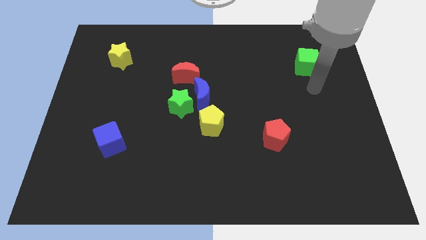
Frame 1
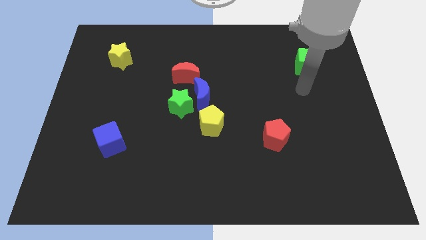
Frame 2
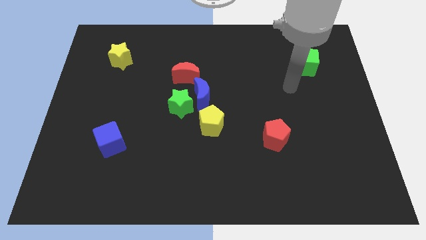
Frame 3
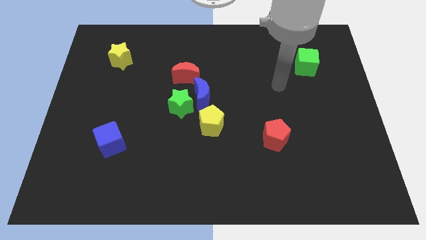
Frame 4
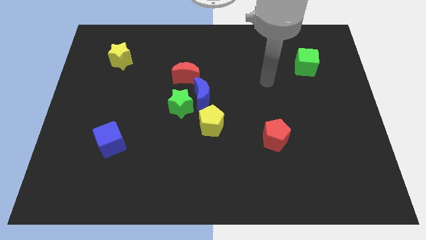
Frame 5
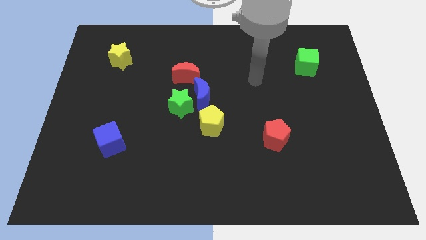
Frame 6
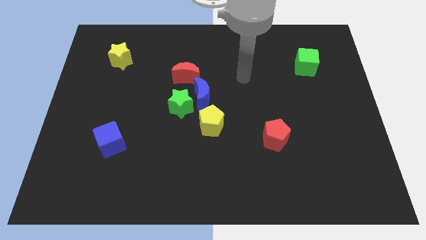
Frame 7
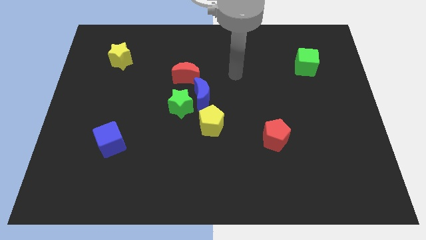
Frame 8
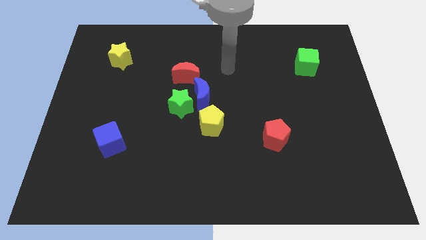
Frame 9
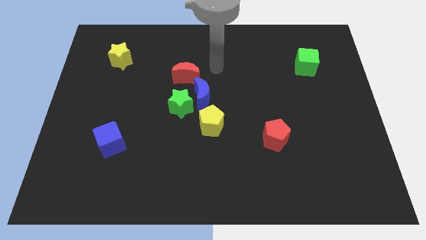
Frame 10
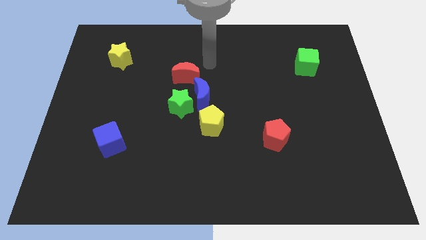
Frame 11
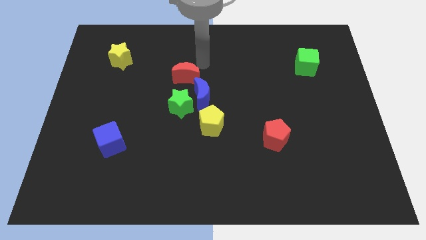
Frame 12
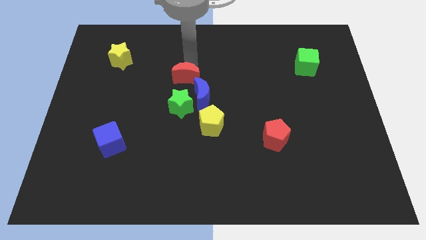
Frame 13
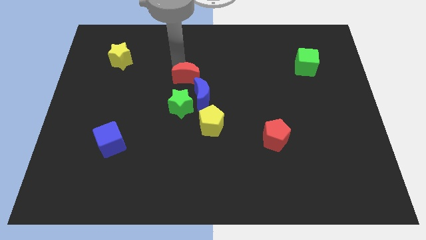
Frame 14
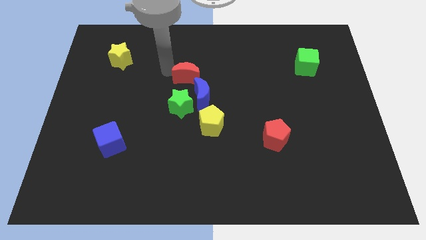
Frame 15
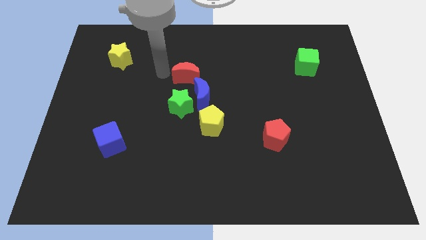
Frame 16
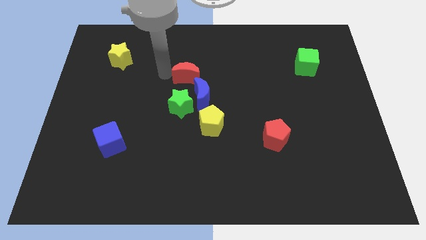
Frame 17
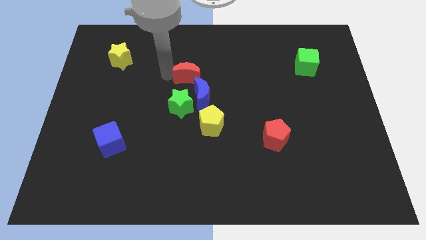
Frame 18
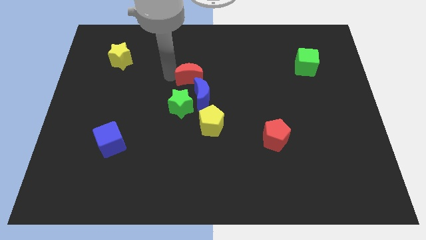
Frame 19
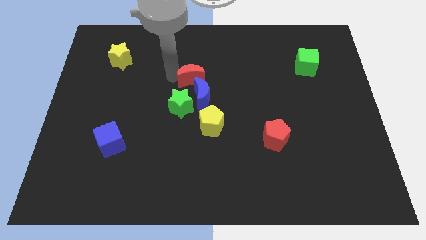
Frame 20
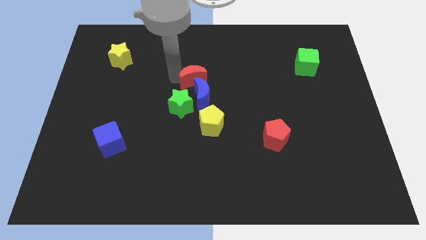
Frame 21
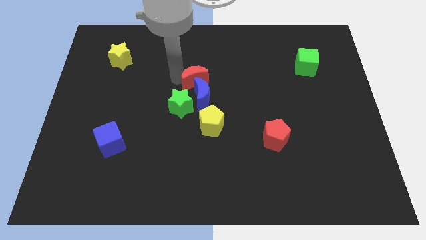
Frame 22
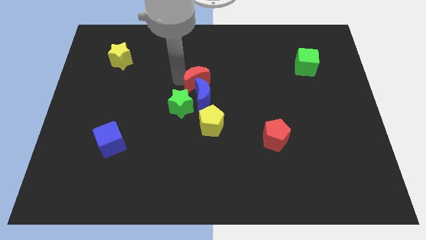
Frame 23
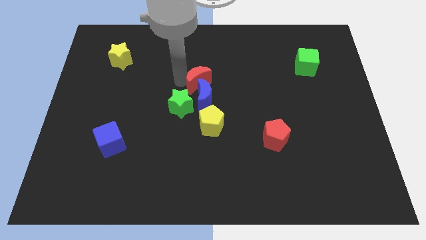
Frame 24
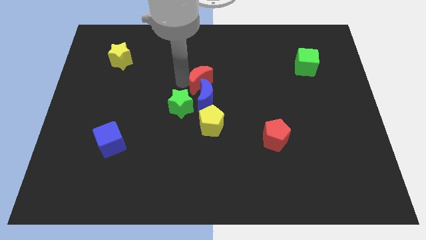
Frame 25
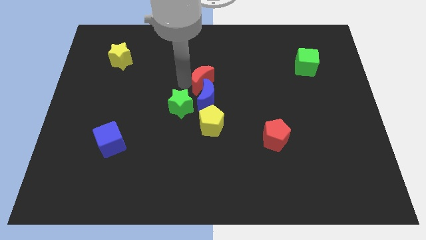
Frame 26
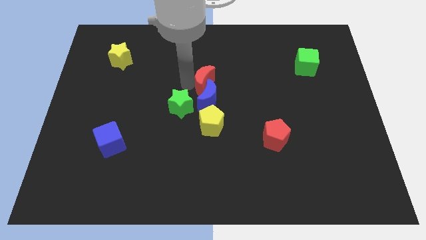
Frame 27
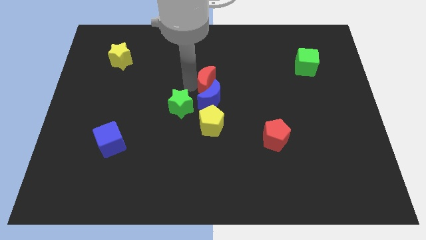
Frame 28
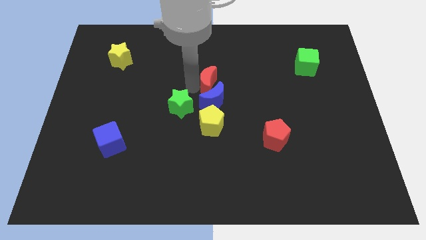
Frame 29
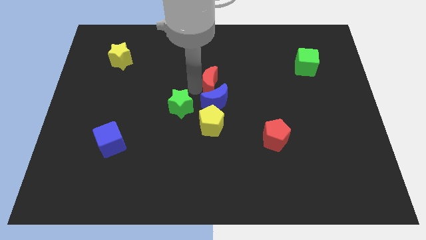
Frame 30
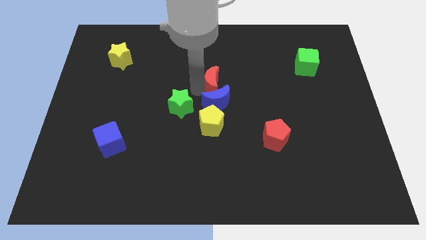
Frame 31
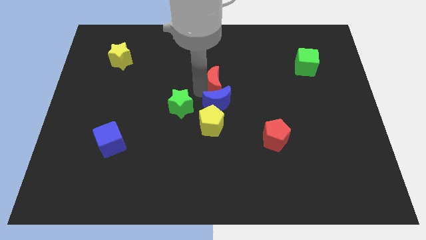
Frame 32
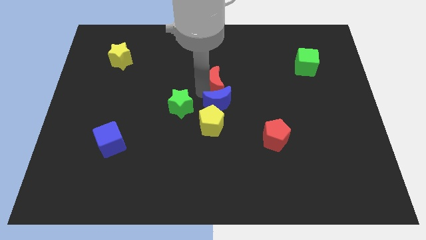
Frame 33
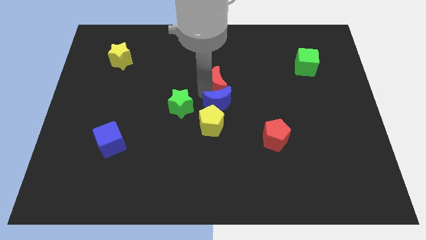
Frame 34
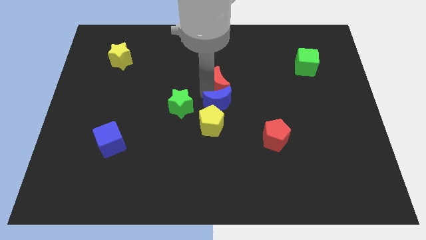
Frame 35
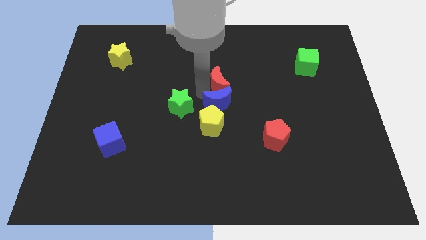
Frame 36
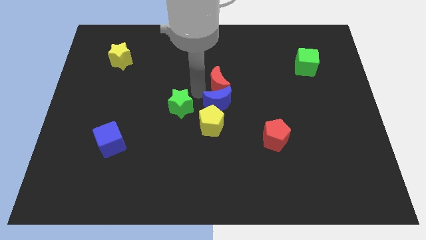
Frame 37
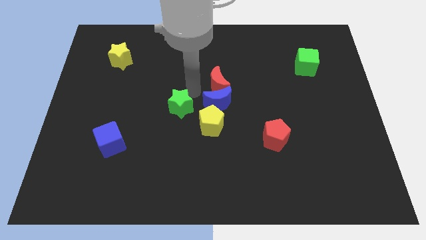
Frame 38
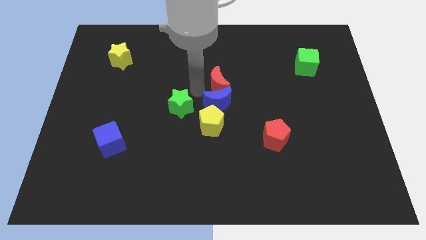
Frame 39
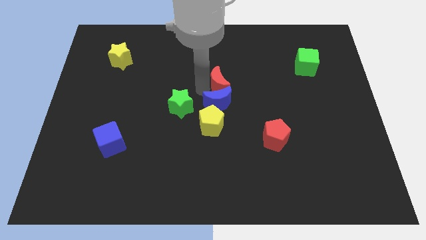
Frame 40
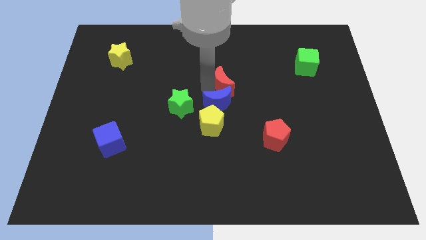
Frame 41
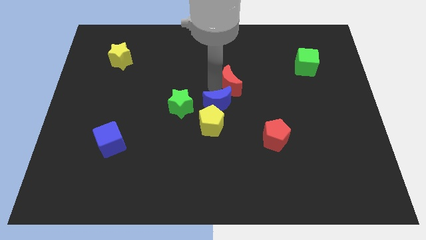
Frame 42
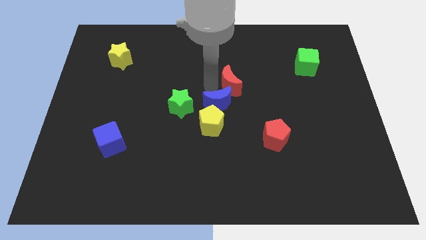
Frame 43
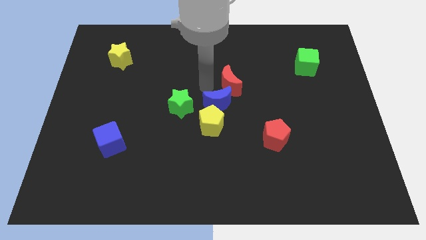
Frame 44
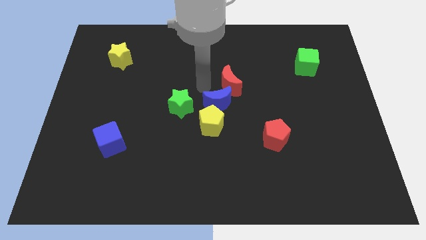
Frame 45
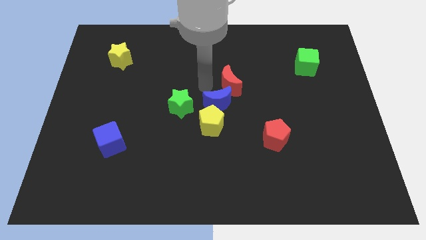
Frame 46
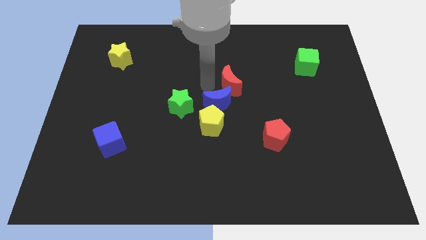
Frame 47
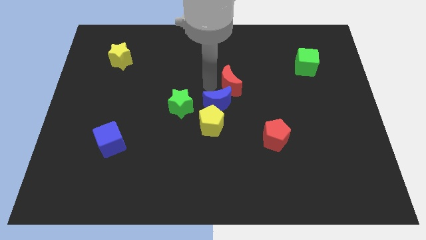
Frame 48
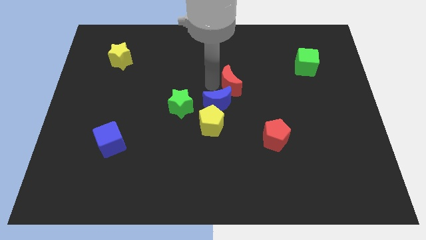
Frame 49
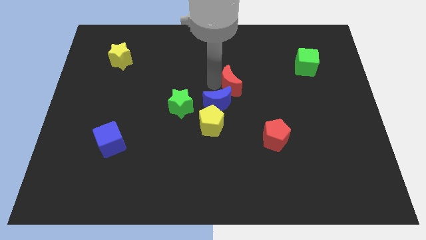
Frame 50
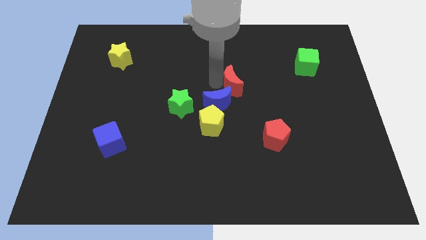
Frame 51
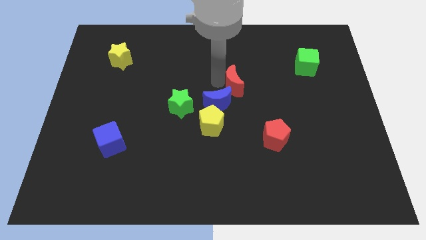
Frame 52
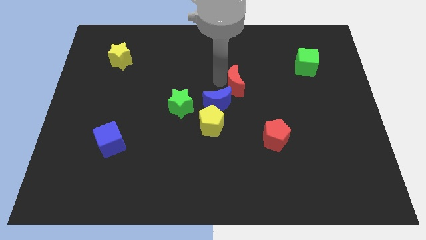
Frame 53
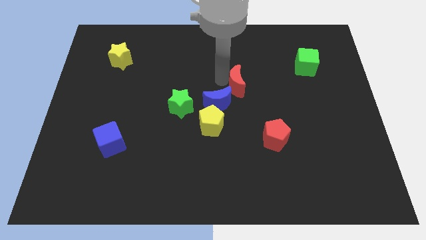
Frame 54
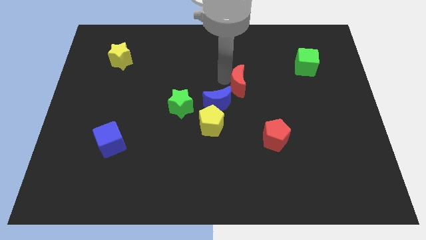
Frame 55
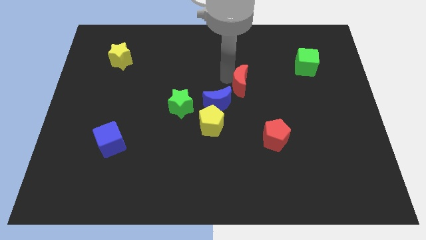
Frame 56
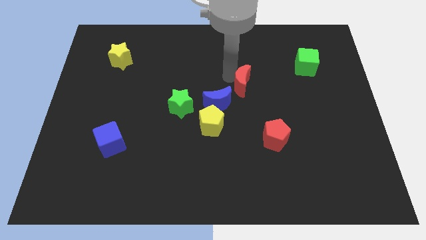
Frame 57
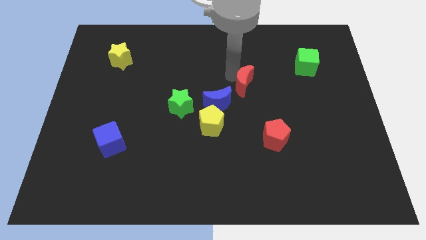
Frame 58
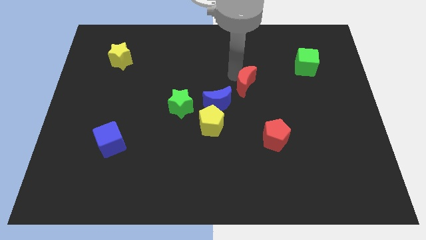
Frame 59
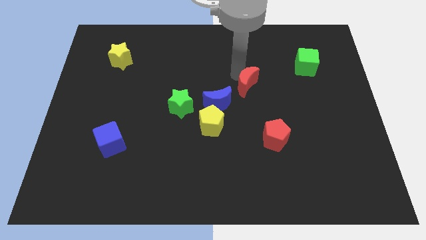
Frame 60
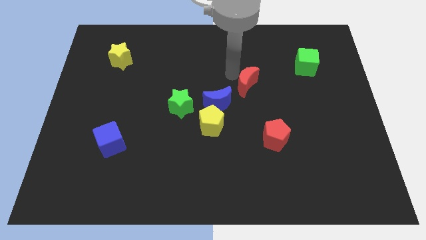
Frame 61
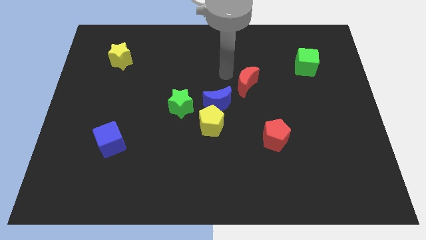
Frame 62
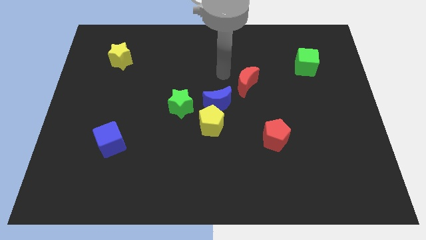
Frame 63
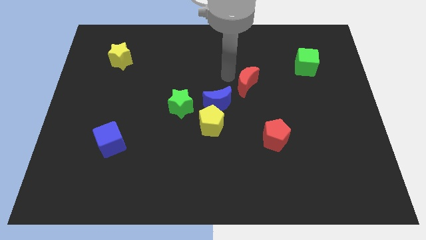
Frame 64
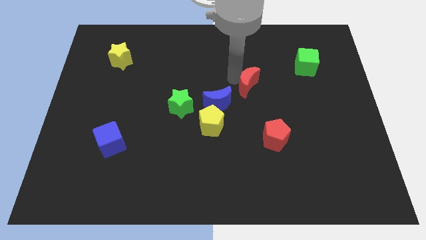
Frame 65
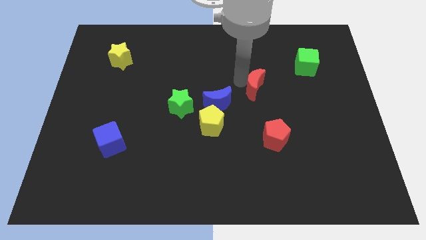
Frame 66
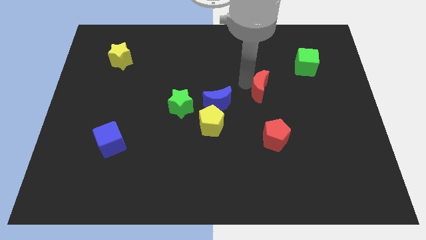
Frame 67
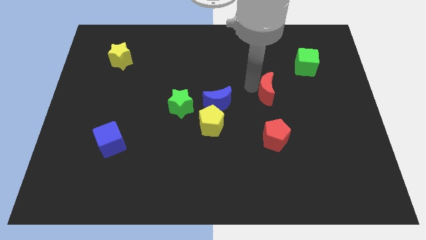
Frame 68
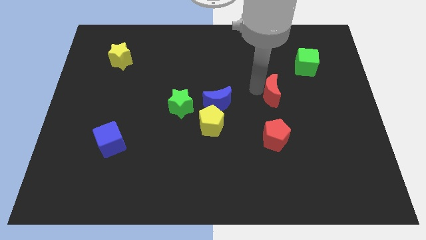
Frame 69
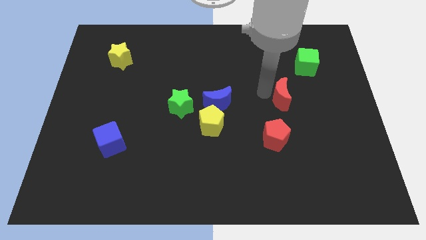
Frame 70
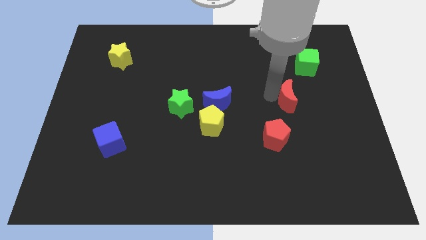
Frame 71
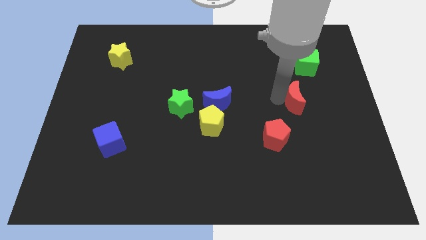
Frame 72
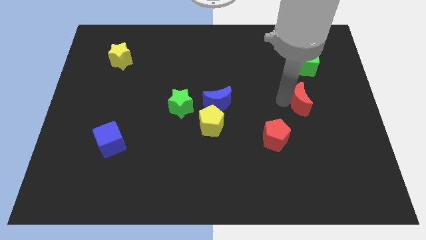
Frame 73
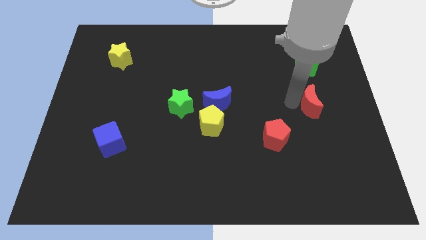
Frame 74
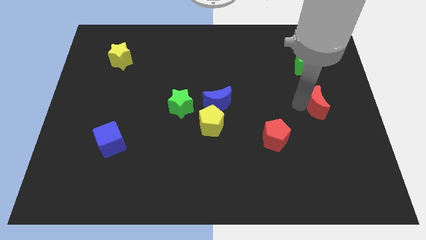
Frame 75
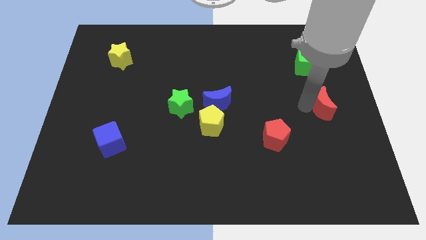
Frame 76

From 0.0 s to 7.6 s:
push the red moon to the right side of the board
